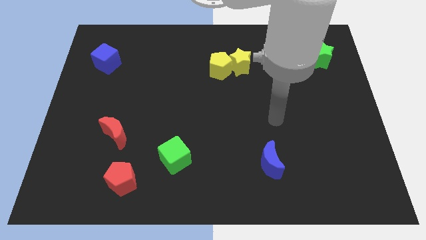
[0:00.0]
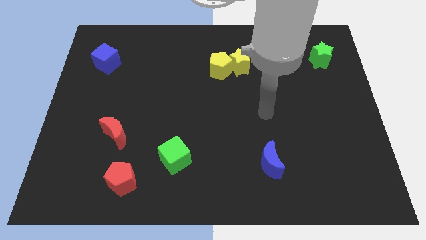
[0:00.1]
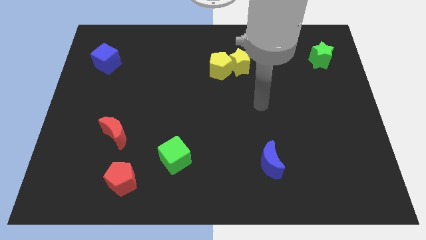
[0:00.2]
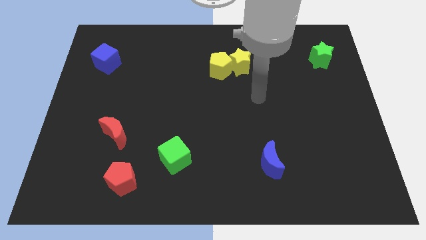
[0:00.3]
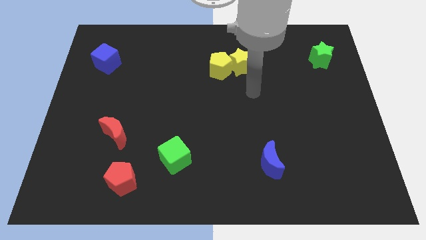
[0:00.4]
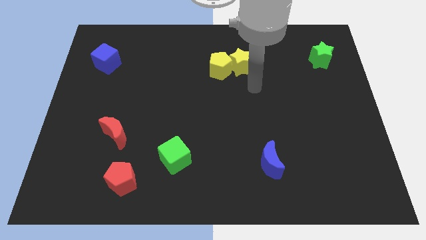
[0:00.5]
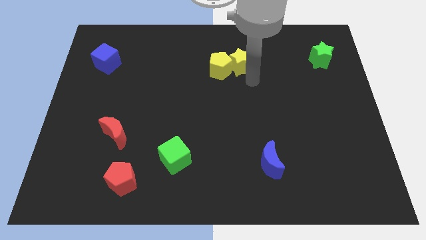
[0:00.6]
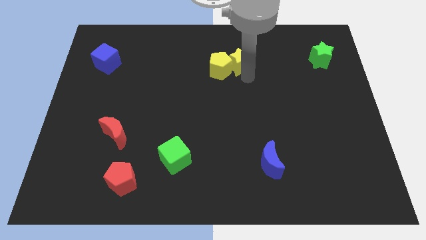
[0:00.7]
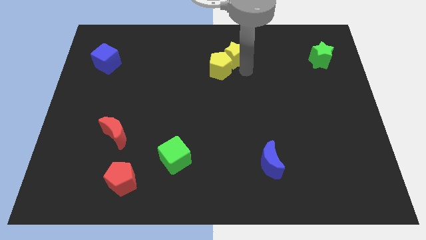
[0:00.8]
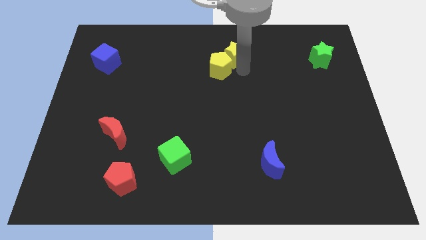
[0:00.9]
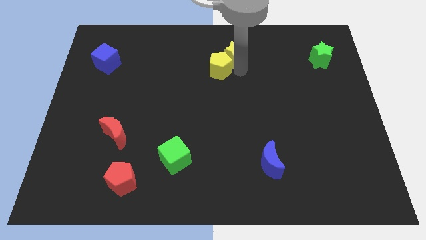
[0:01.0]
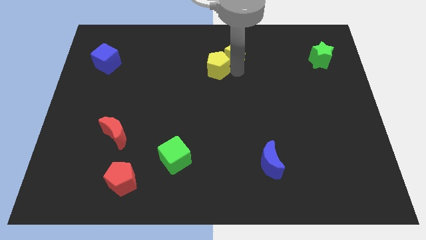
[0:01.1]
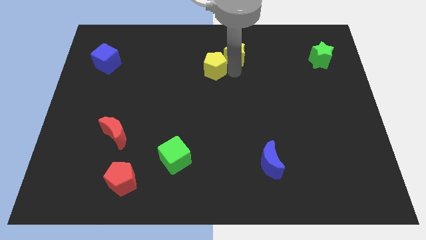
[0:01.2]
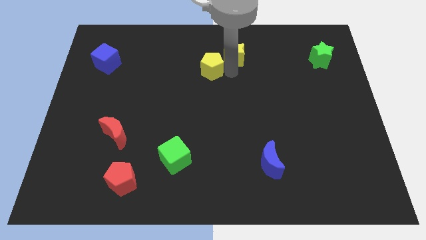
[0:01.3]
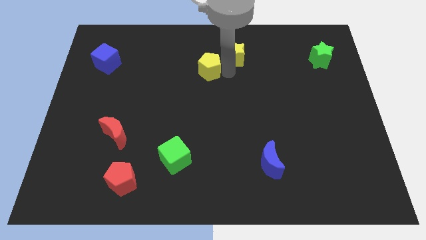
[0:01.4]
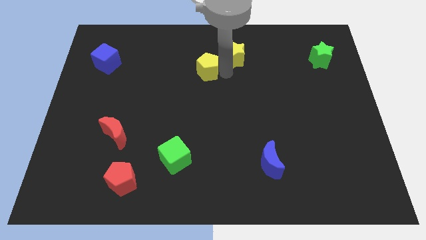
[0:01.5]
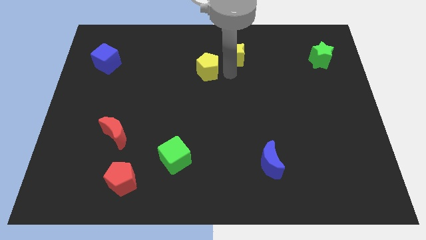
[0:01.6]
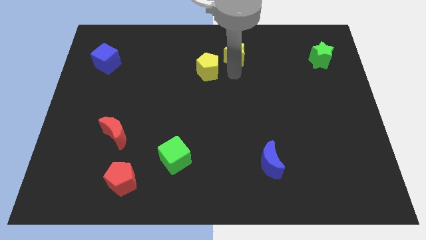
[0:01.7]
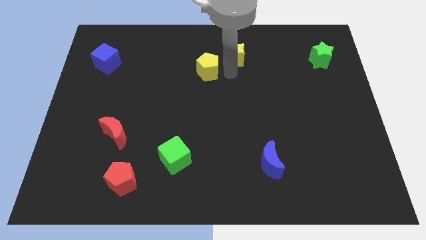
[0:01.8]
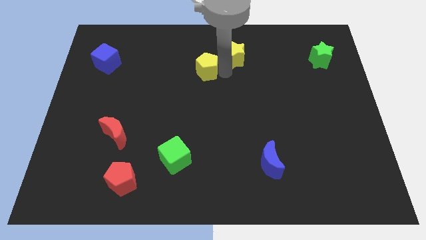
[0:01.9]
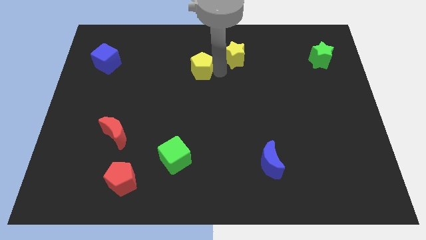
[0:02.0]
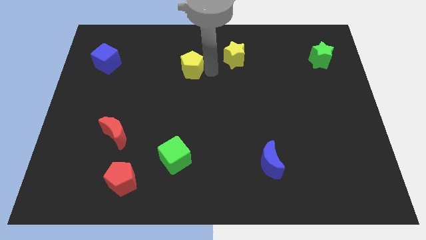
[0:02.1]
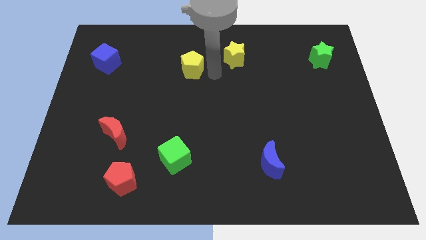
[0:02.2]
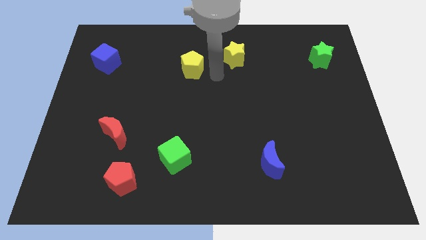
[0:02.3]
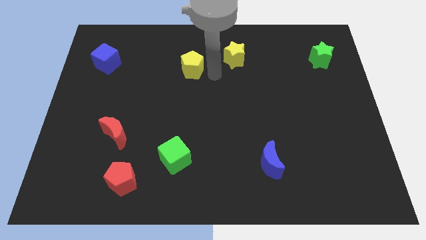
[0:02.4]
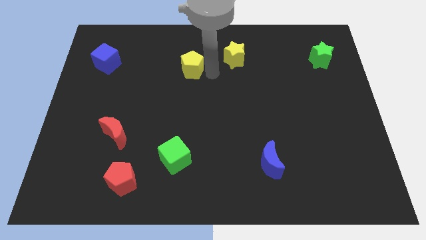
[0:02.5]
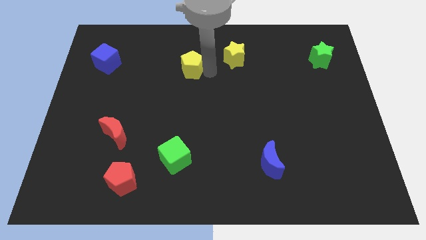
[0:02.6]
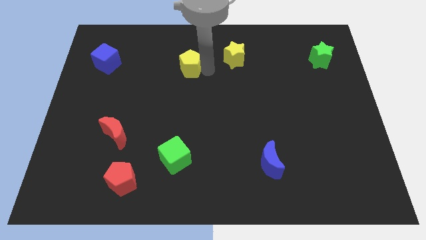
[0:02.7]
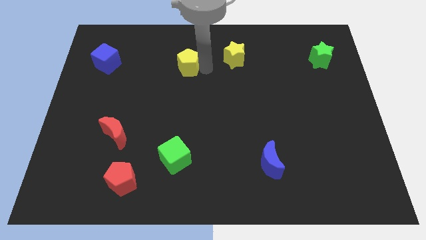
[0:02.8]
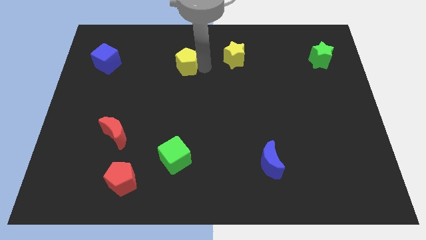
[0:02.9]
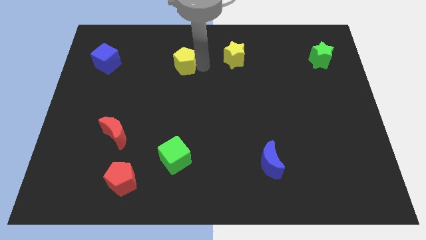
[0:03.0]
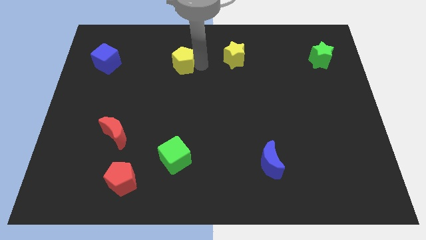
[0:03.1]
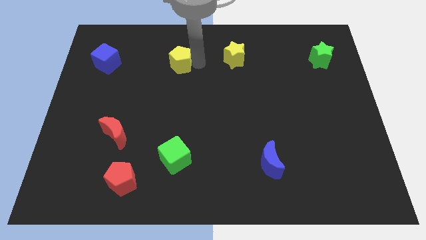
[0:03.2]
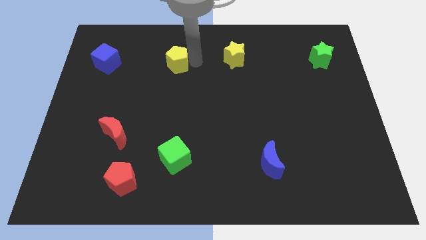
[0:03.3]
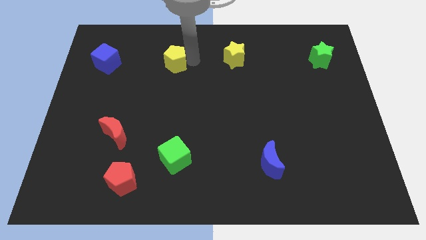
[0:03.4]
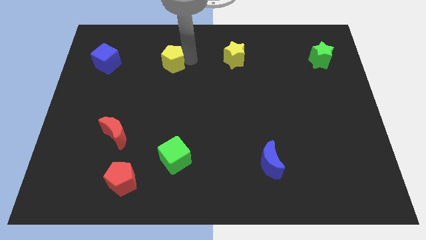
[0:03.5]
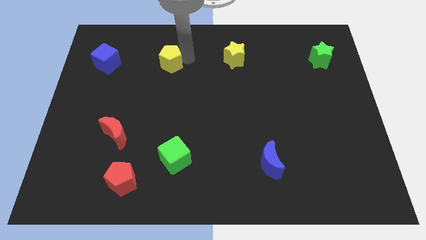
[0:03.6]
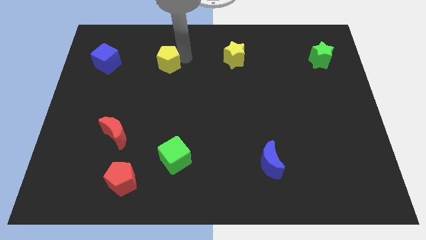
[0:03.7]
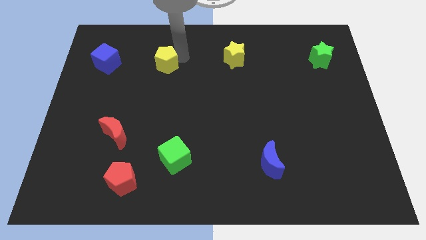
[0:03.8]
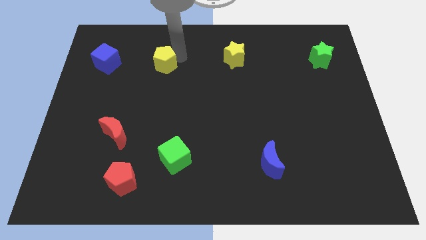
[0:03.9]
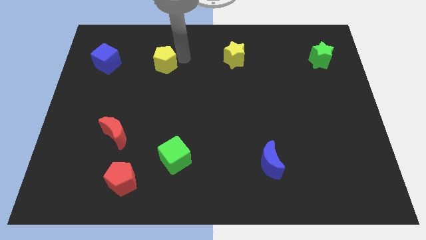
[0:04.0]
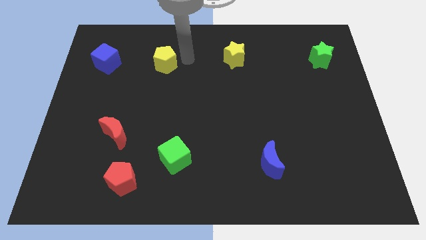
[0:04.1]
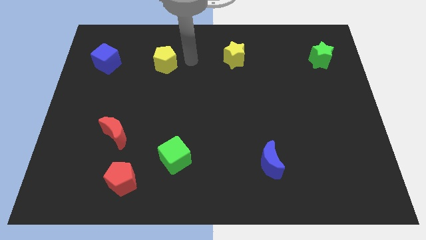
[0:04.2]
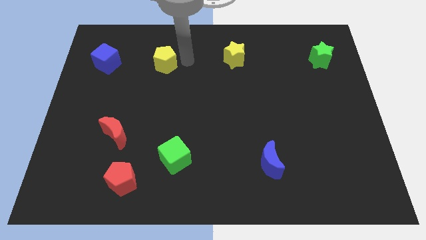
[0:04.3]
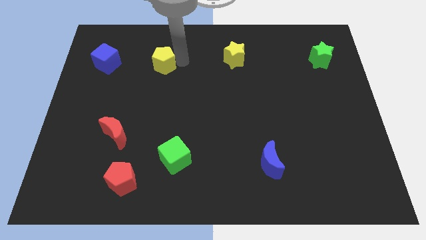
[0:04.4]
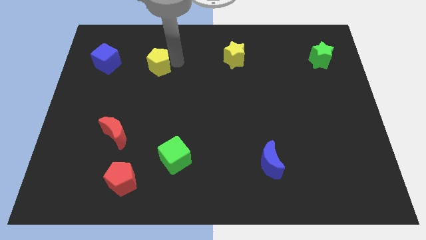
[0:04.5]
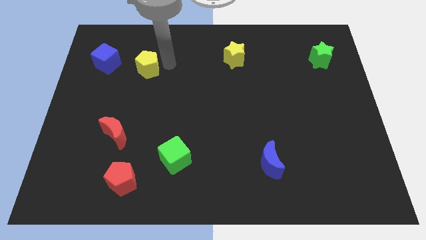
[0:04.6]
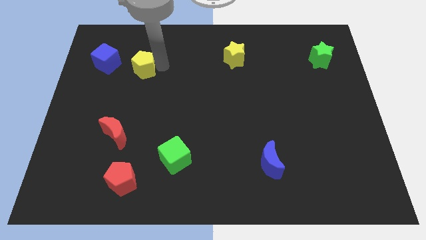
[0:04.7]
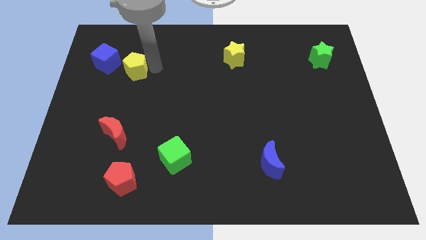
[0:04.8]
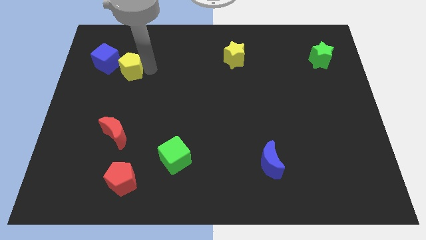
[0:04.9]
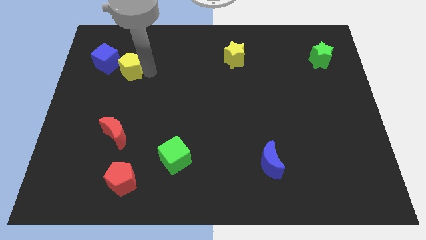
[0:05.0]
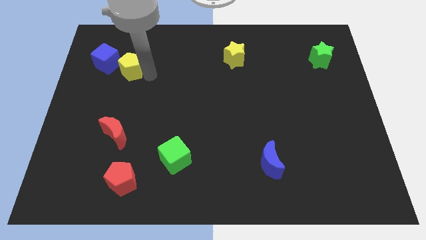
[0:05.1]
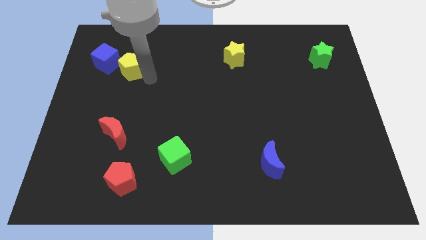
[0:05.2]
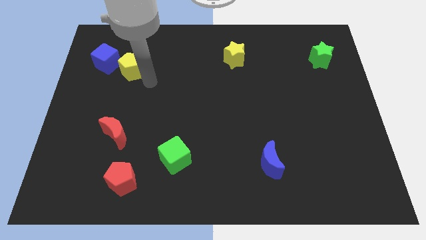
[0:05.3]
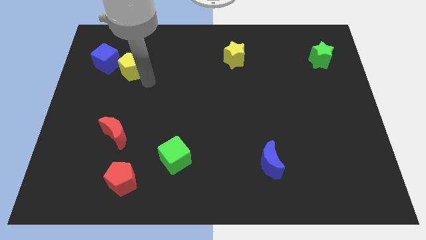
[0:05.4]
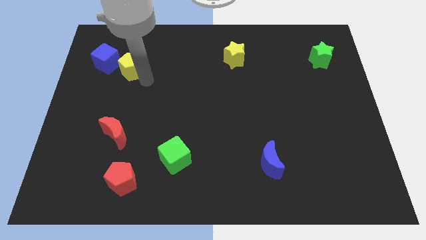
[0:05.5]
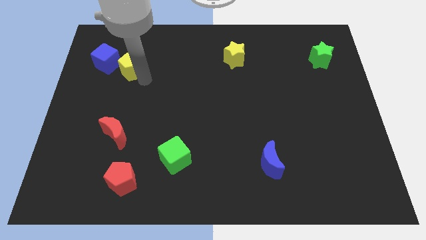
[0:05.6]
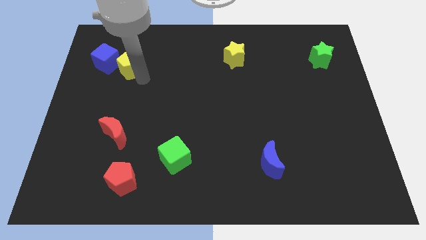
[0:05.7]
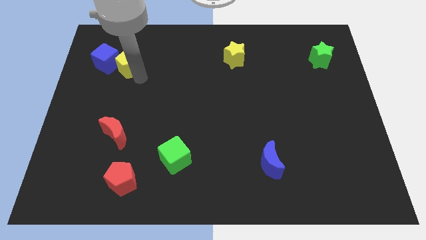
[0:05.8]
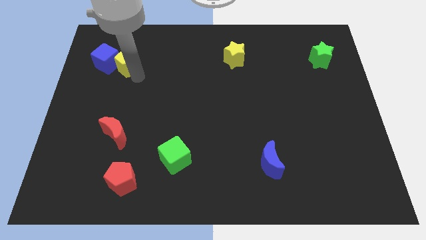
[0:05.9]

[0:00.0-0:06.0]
move the yellow pentagon close to the blue cube

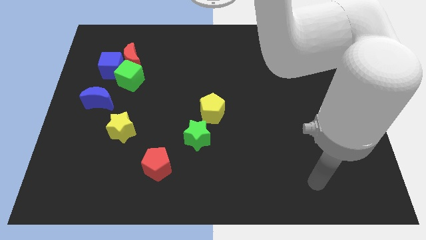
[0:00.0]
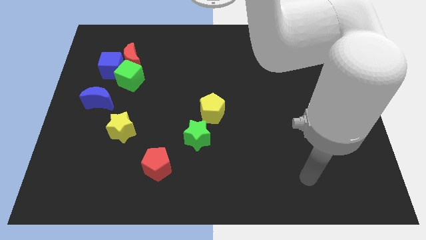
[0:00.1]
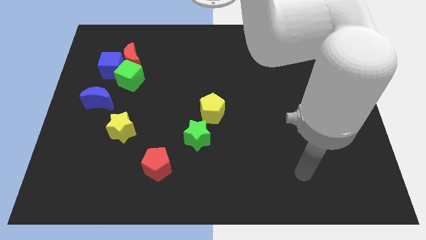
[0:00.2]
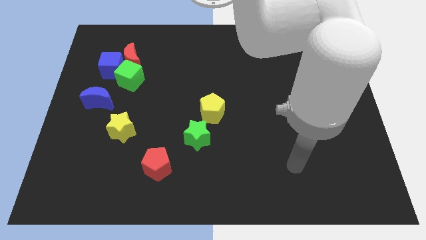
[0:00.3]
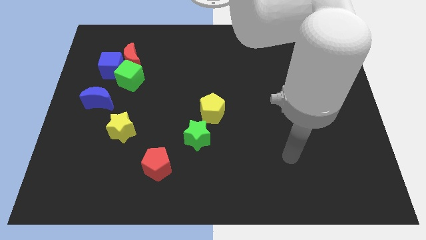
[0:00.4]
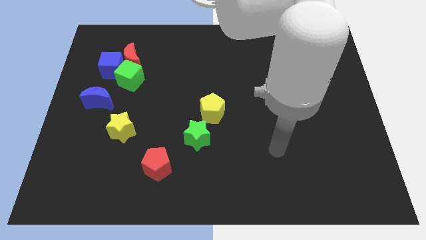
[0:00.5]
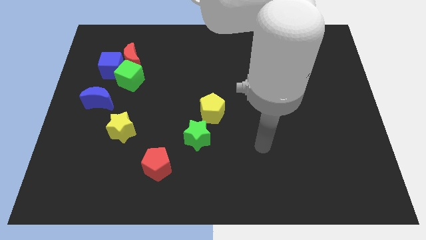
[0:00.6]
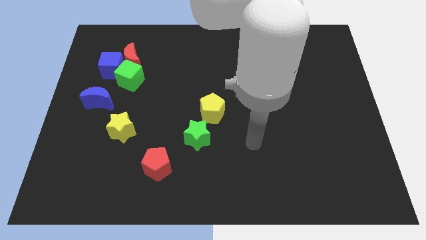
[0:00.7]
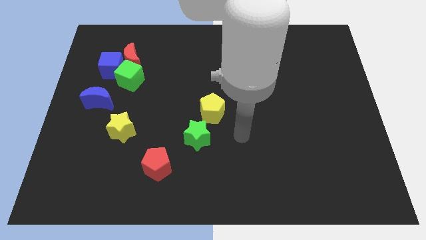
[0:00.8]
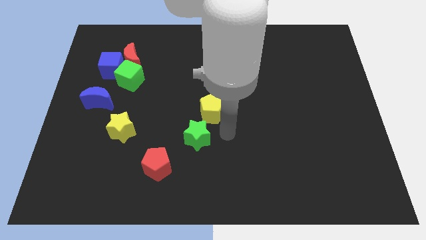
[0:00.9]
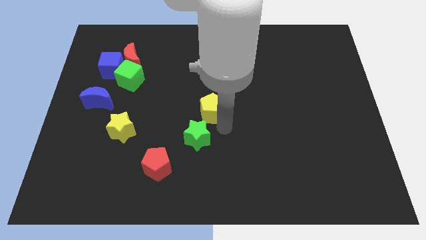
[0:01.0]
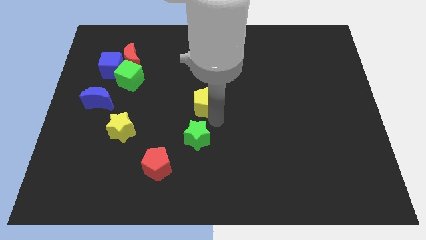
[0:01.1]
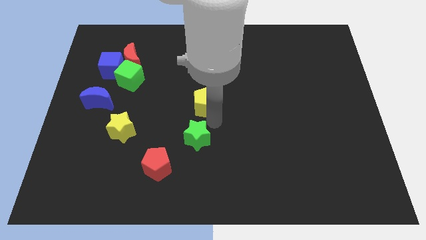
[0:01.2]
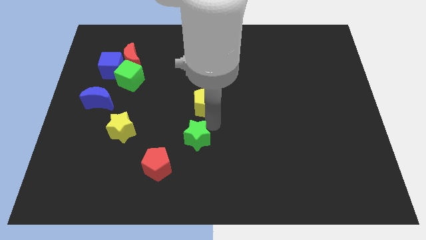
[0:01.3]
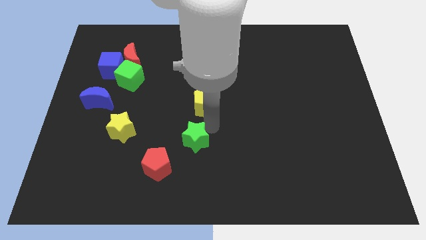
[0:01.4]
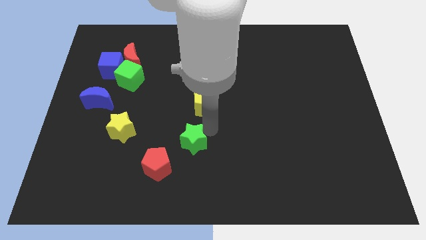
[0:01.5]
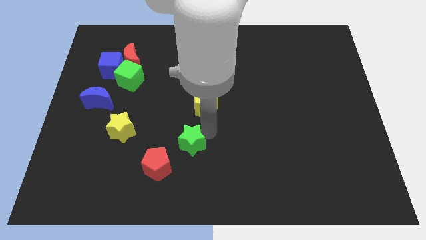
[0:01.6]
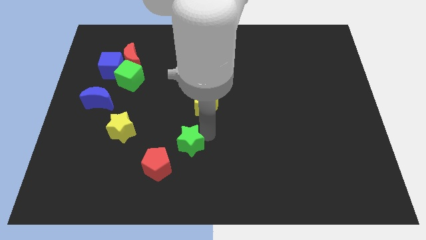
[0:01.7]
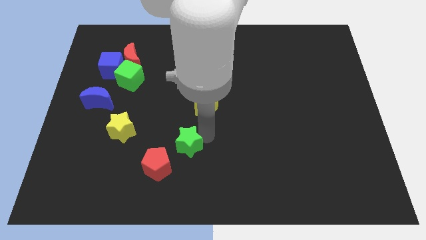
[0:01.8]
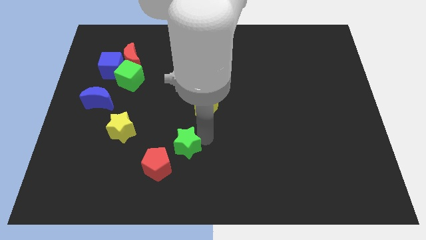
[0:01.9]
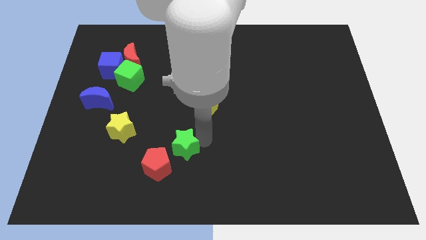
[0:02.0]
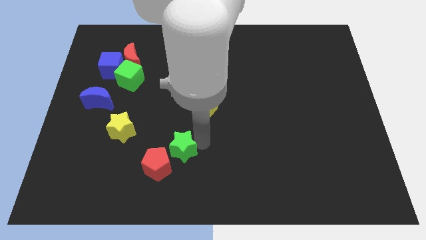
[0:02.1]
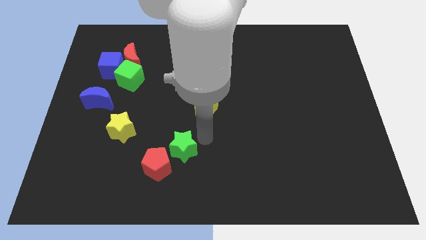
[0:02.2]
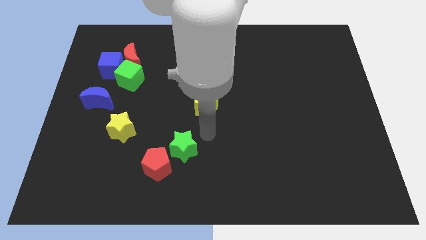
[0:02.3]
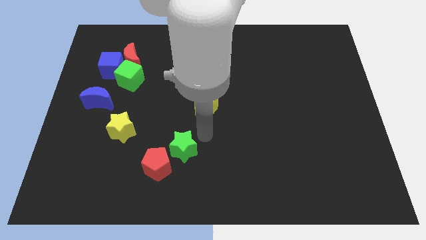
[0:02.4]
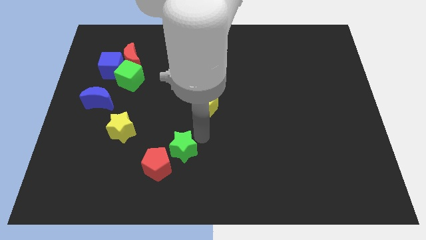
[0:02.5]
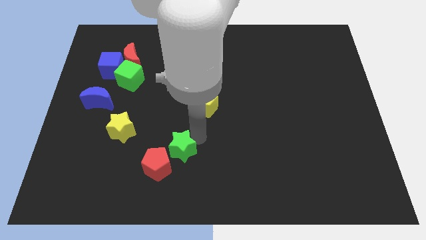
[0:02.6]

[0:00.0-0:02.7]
put the green star next to the red pentagon
